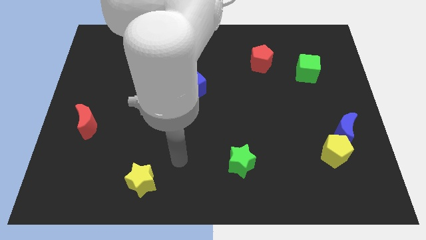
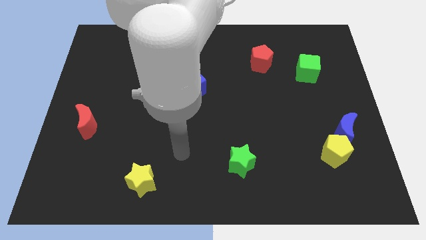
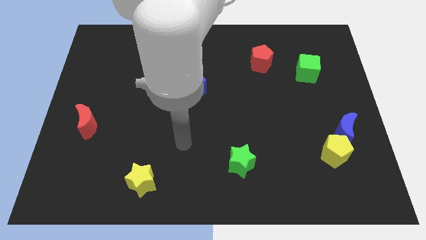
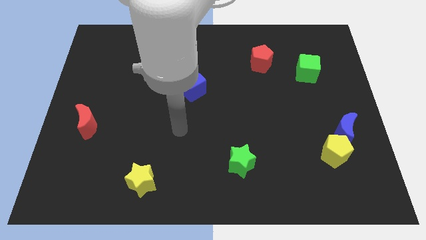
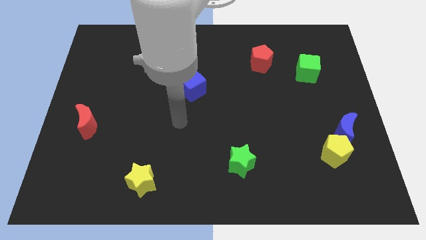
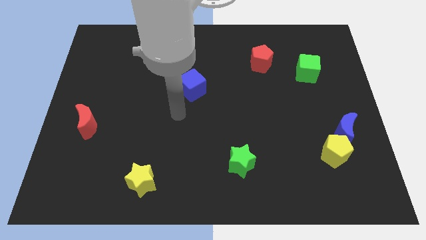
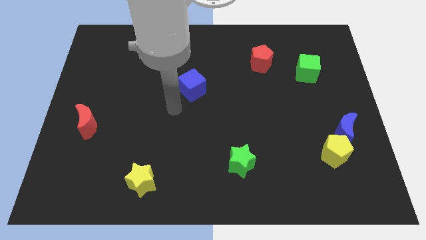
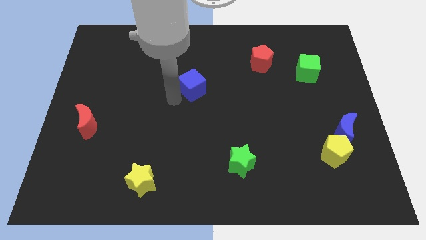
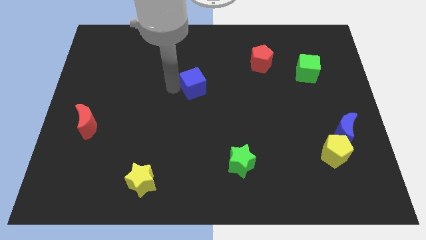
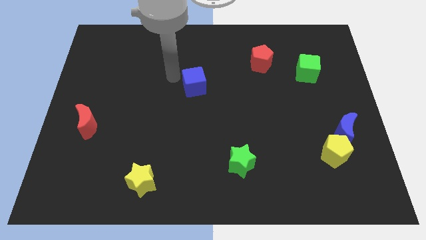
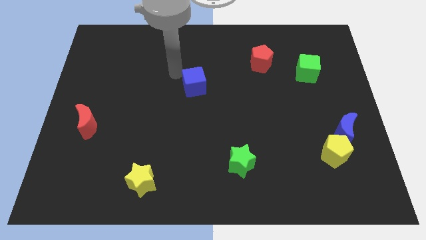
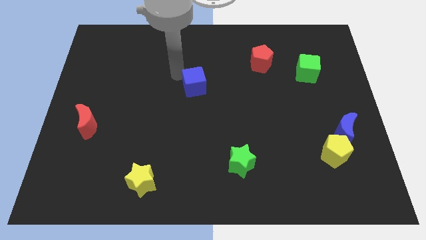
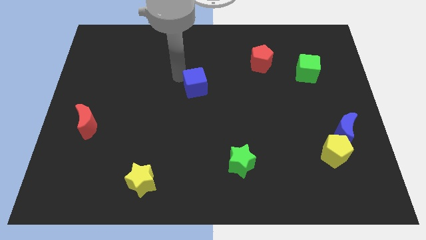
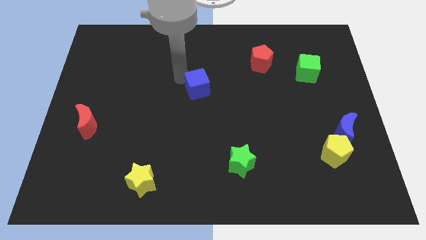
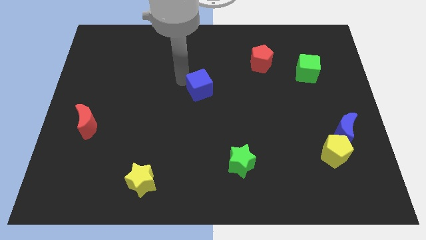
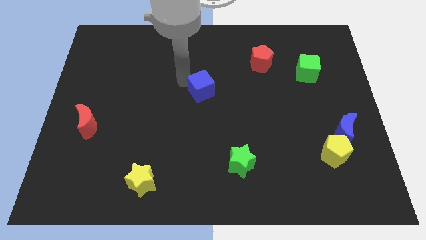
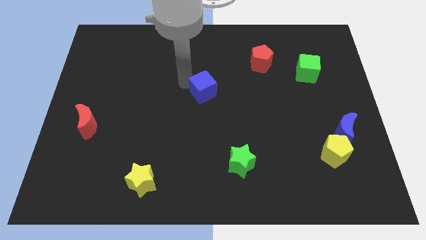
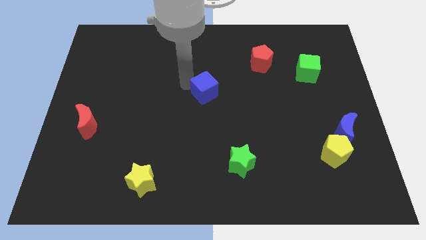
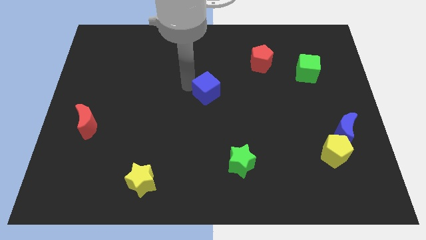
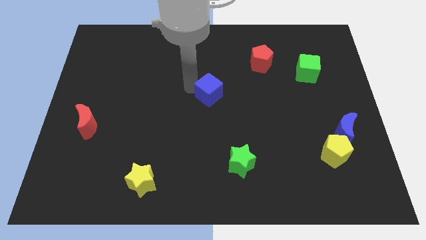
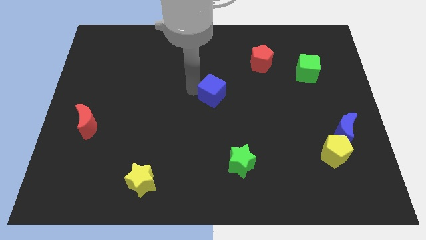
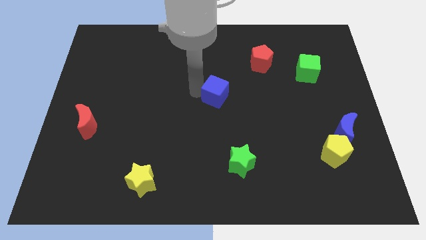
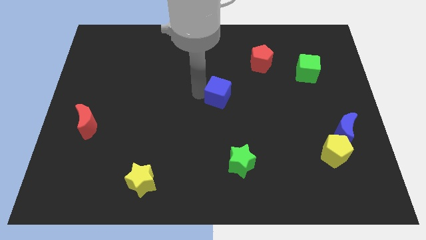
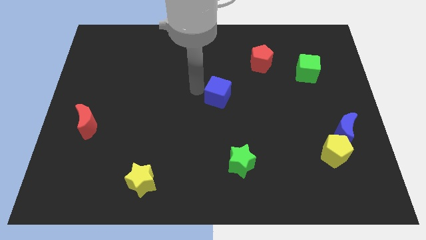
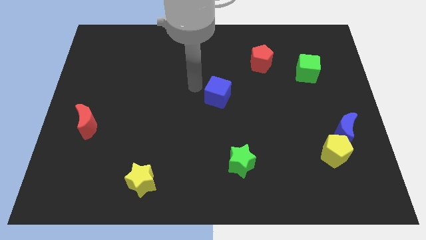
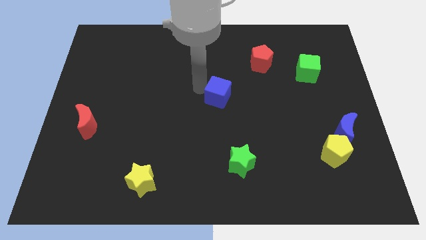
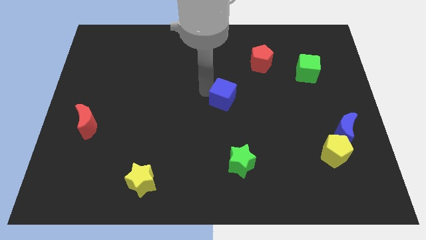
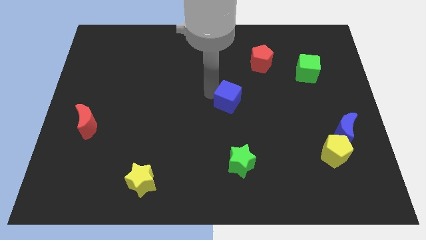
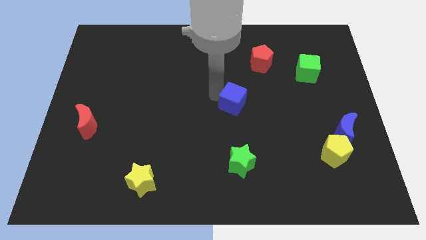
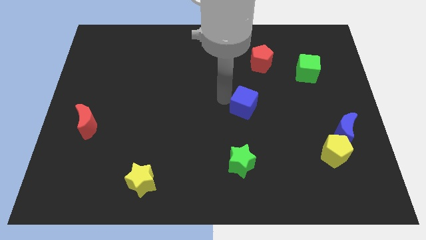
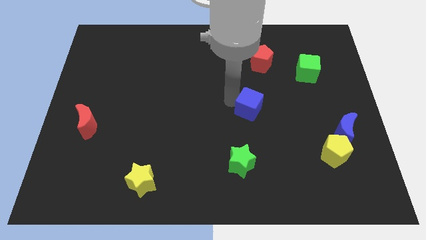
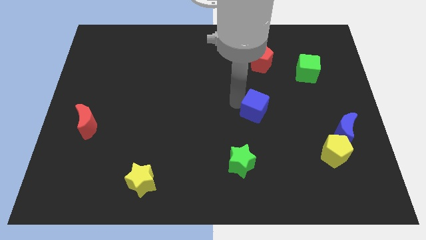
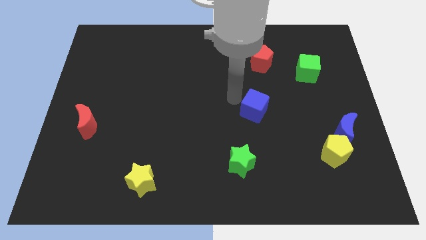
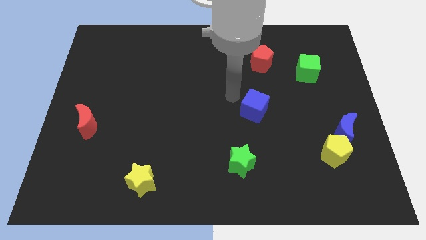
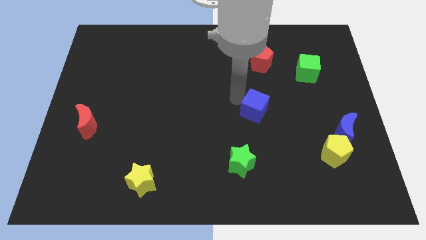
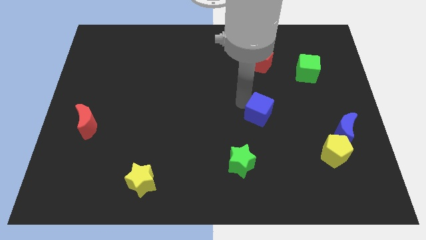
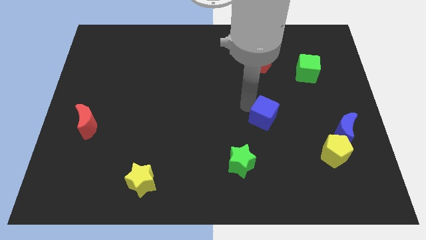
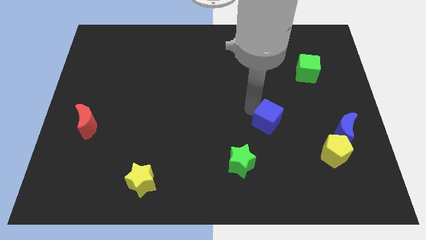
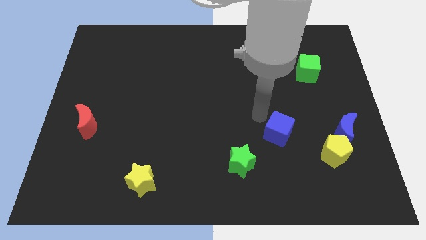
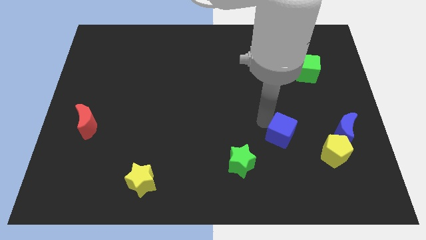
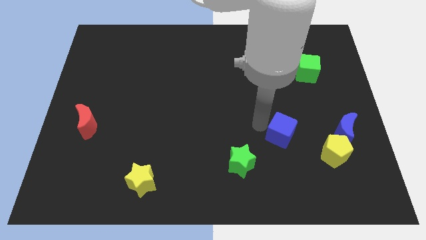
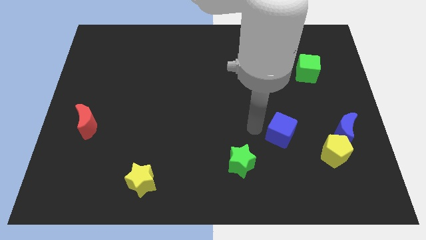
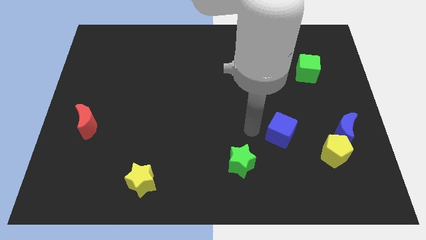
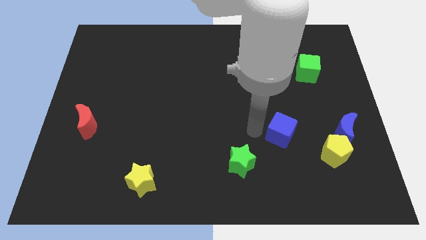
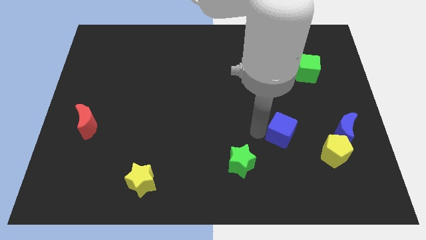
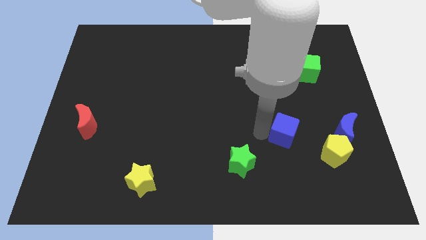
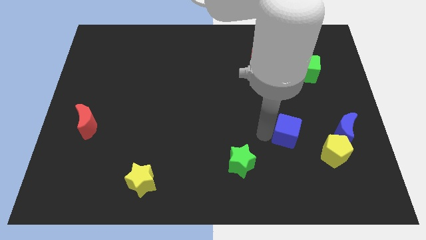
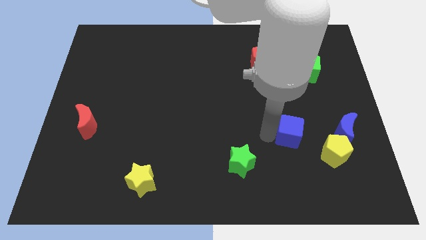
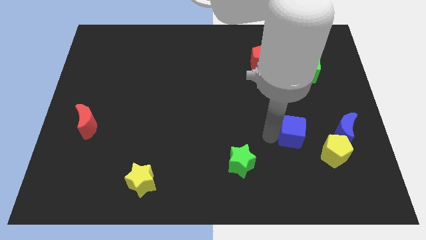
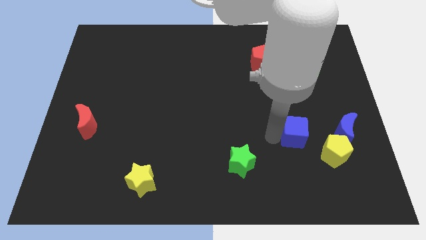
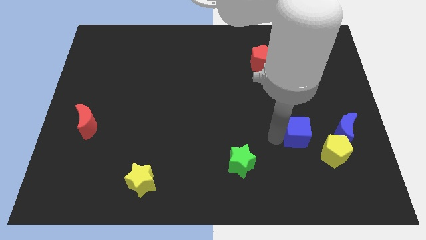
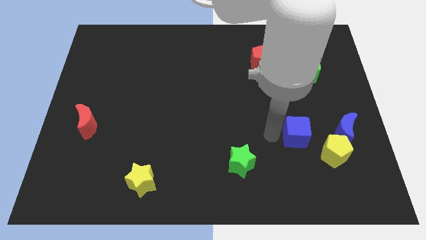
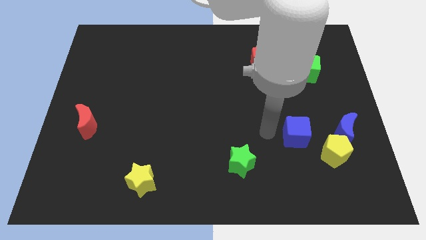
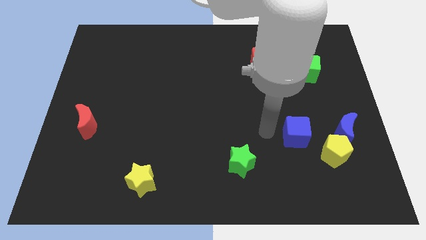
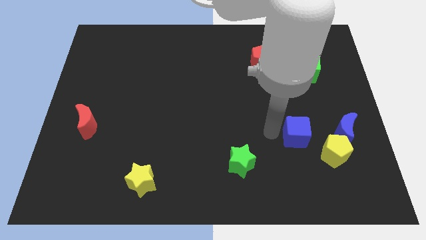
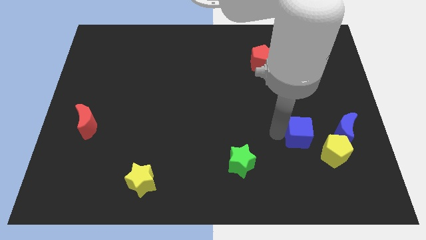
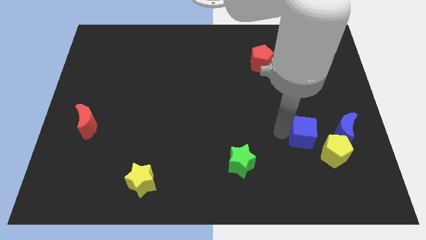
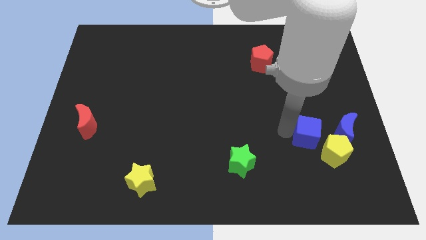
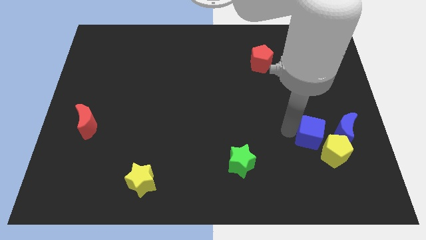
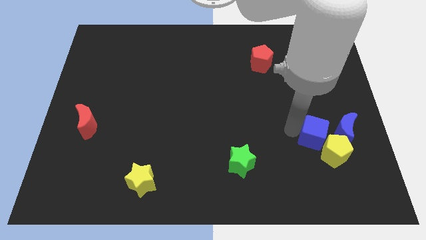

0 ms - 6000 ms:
put the blue cube next to the yellow pentagon
